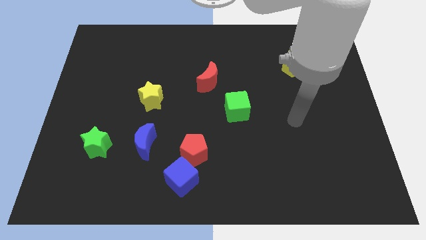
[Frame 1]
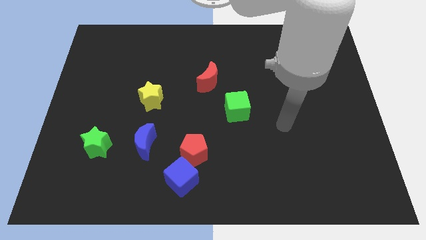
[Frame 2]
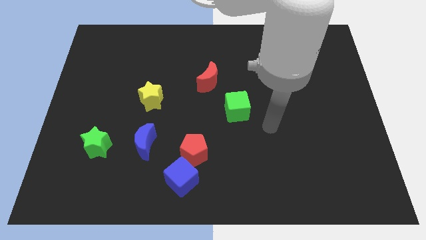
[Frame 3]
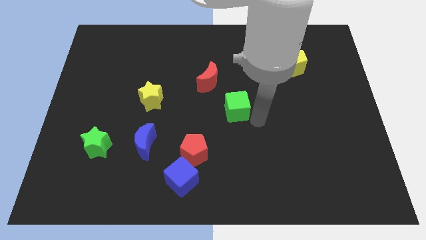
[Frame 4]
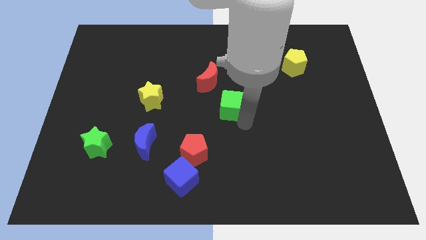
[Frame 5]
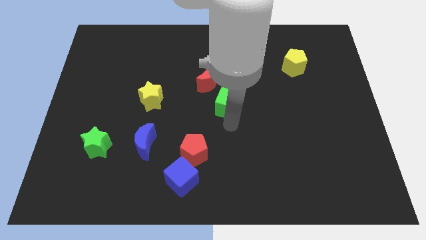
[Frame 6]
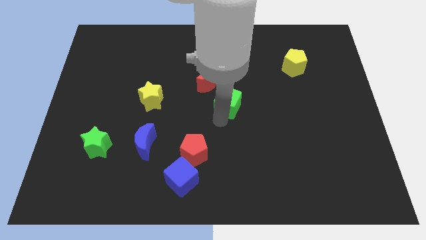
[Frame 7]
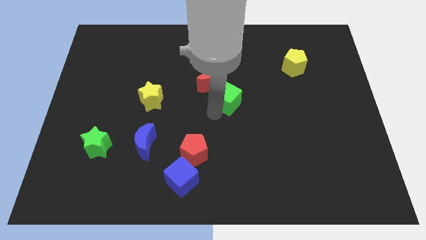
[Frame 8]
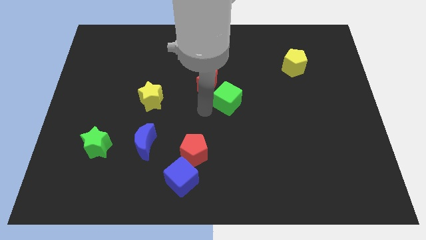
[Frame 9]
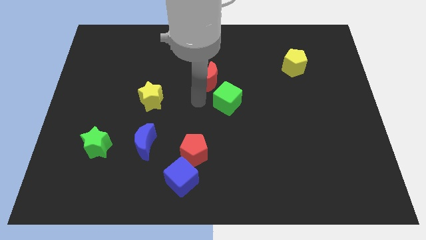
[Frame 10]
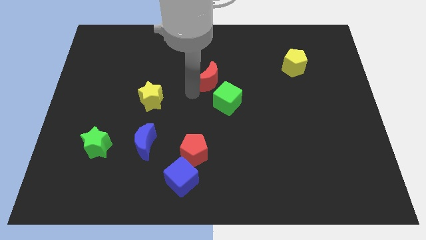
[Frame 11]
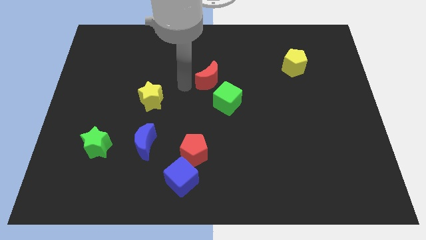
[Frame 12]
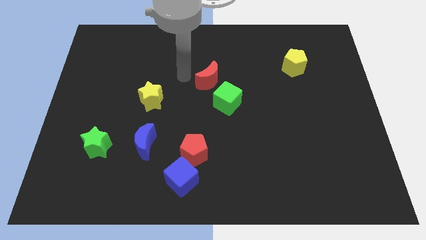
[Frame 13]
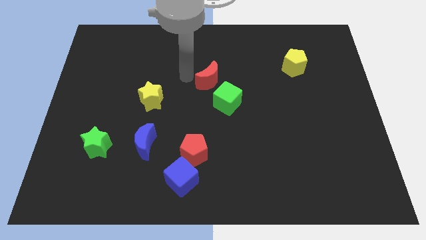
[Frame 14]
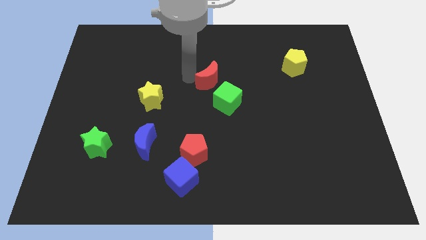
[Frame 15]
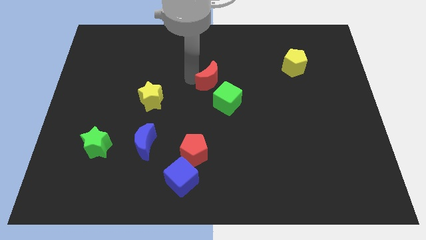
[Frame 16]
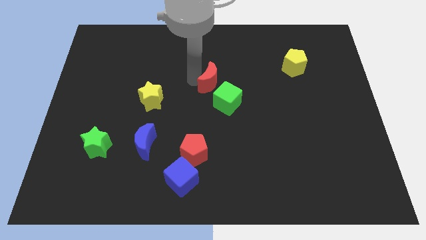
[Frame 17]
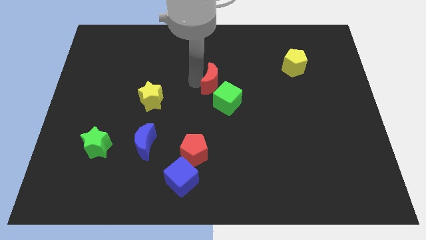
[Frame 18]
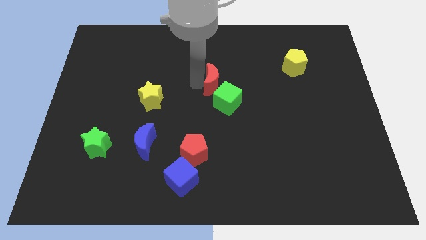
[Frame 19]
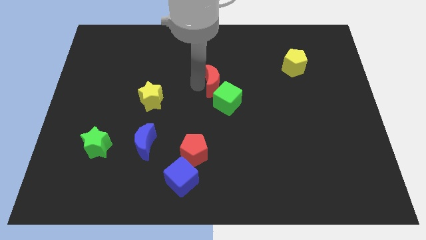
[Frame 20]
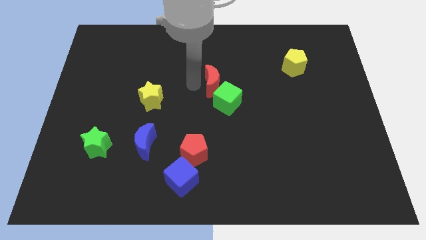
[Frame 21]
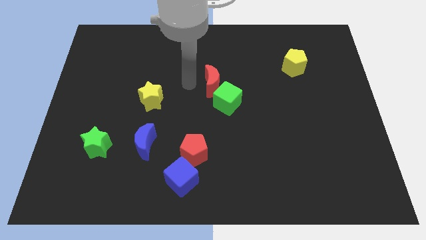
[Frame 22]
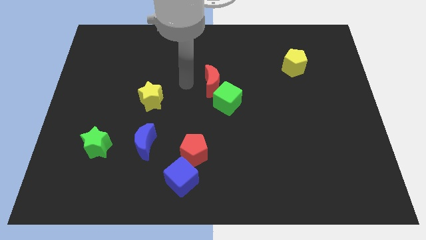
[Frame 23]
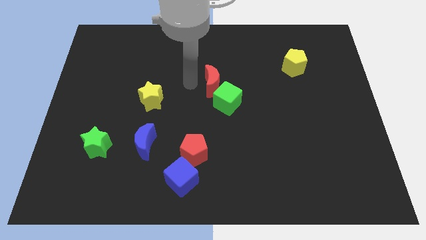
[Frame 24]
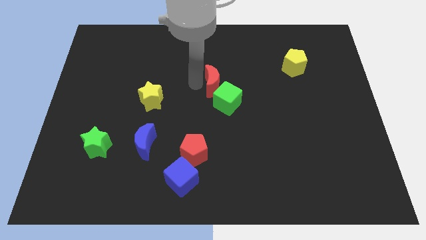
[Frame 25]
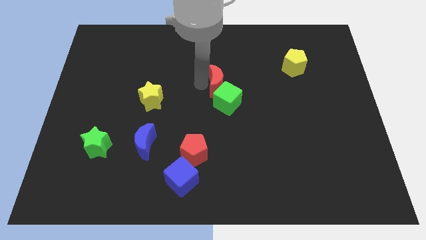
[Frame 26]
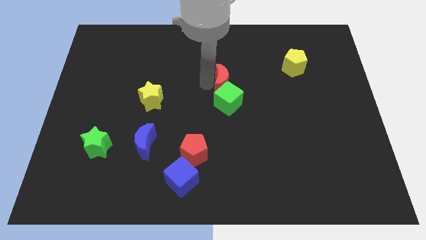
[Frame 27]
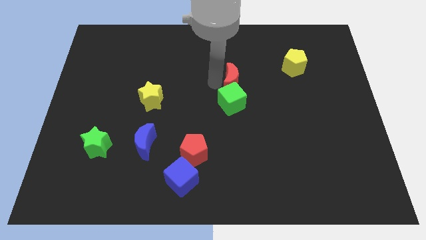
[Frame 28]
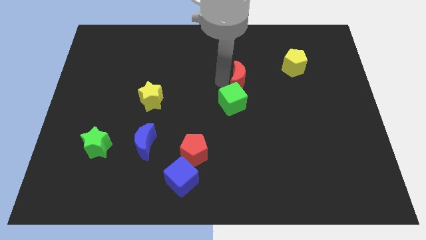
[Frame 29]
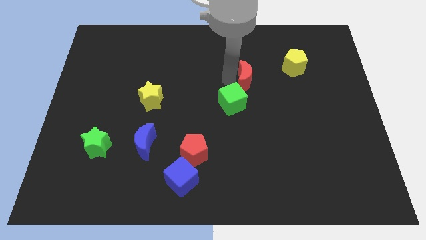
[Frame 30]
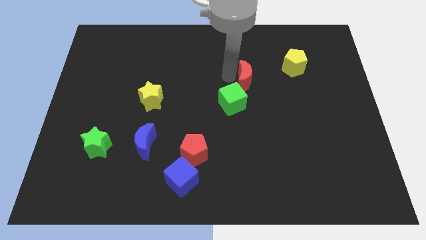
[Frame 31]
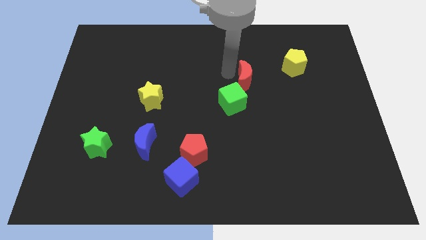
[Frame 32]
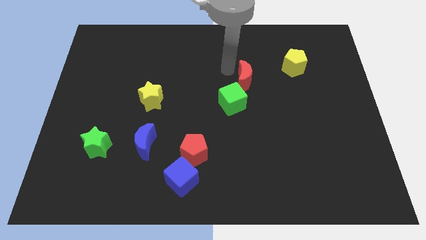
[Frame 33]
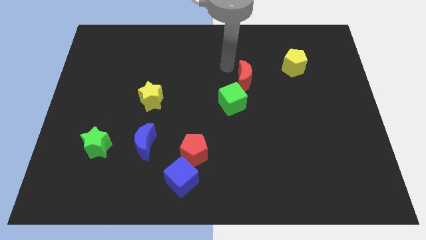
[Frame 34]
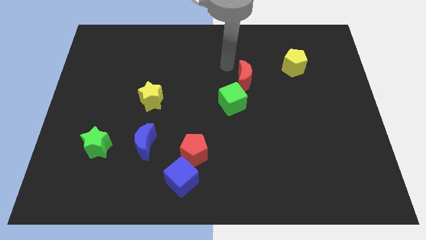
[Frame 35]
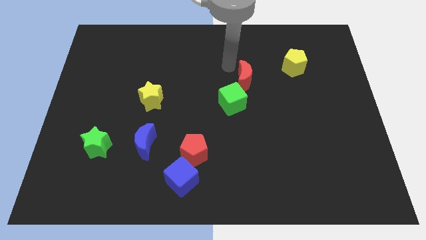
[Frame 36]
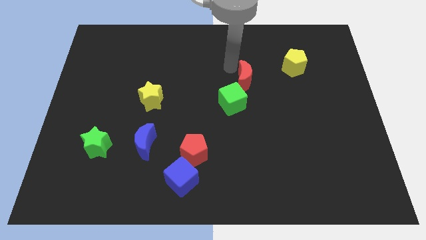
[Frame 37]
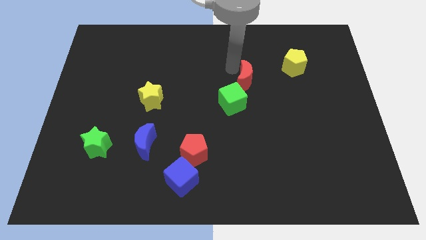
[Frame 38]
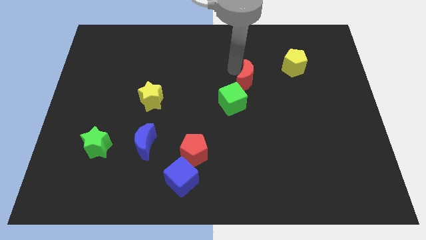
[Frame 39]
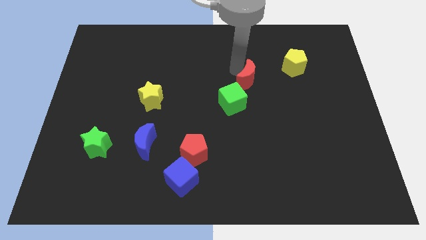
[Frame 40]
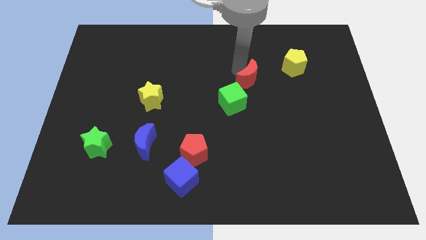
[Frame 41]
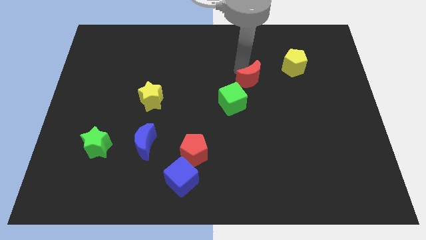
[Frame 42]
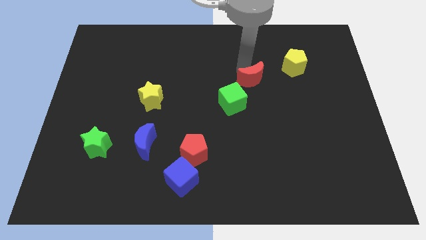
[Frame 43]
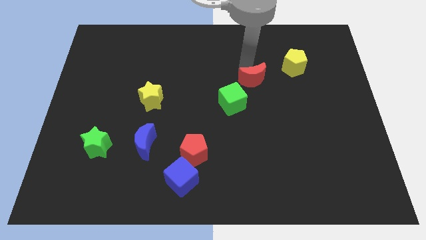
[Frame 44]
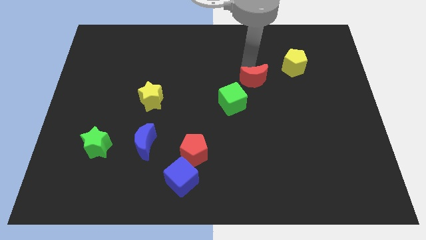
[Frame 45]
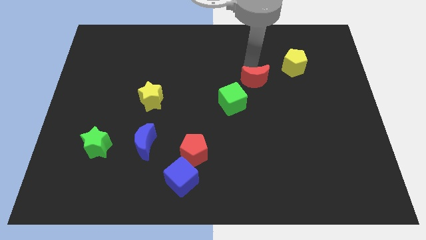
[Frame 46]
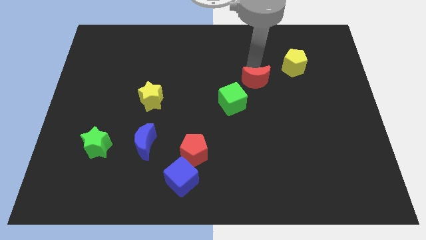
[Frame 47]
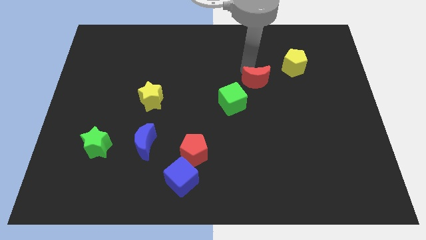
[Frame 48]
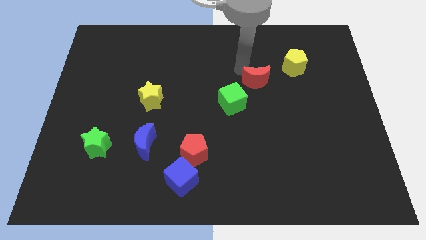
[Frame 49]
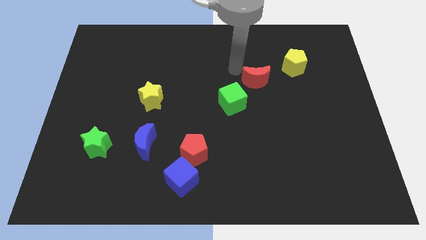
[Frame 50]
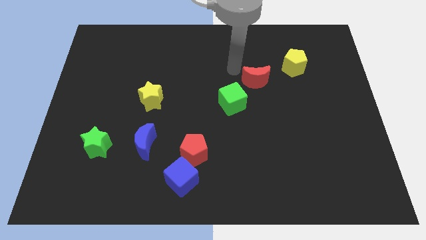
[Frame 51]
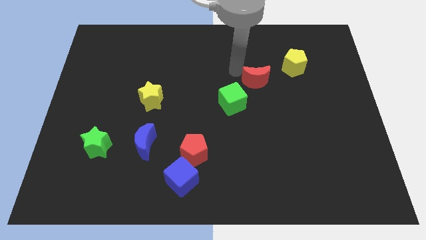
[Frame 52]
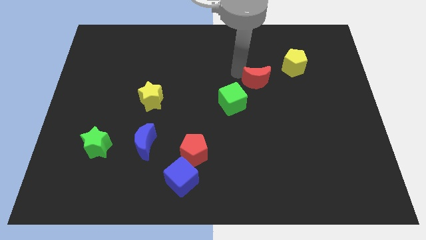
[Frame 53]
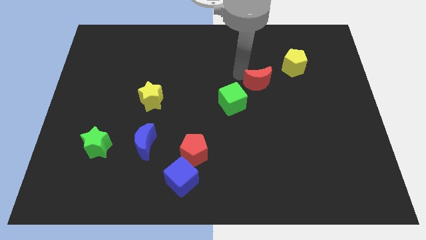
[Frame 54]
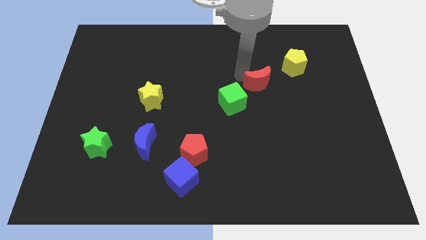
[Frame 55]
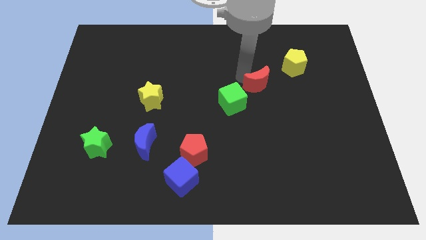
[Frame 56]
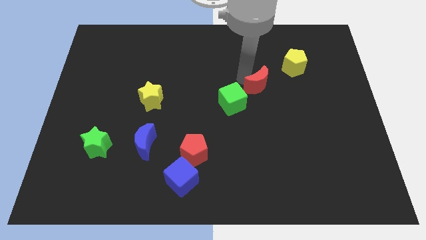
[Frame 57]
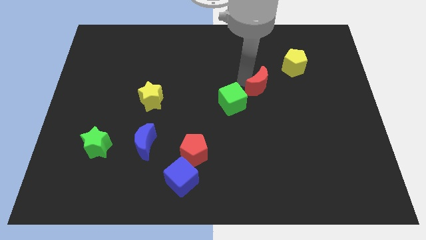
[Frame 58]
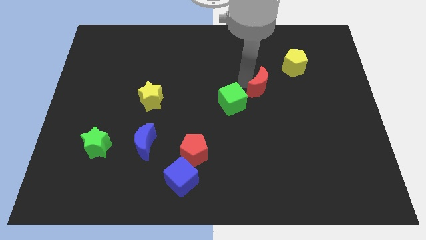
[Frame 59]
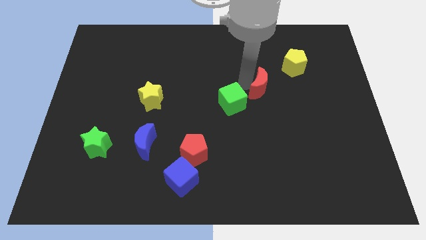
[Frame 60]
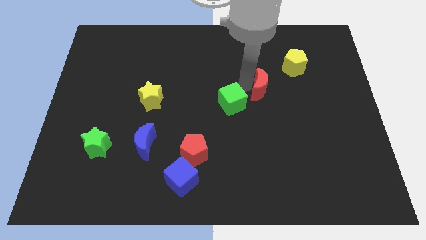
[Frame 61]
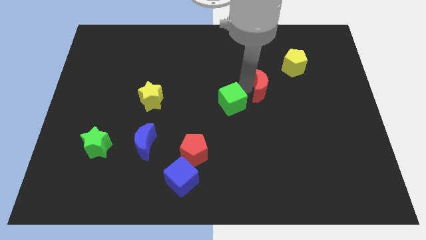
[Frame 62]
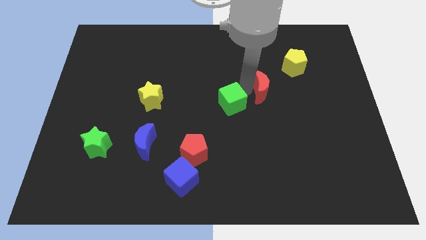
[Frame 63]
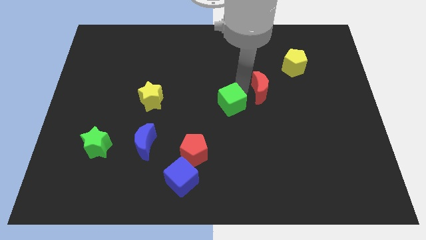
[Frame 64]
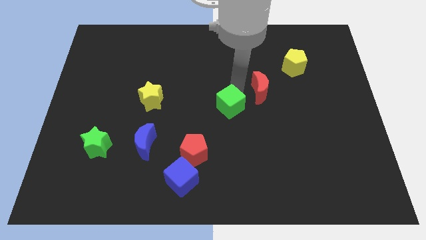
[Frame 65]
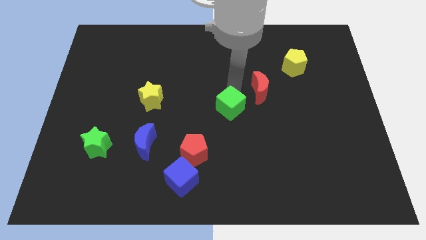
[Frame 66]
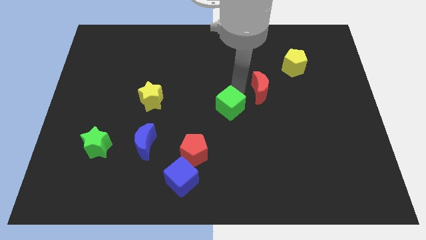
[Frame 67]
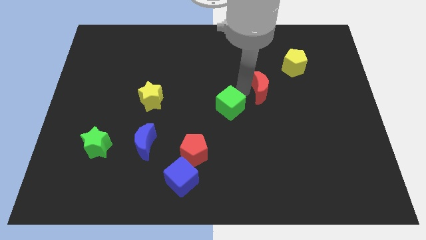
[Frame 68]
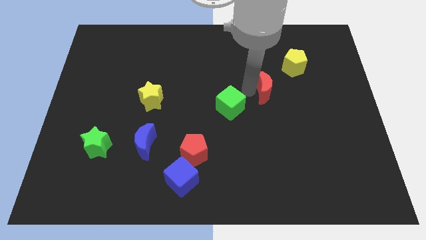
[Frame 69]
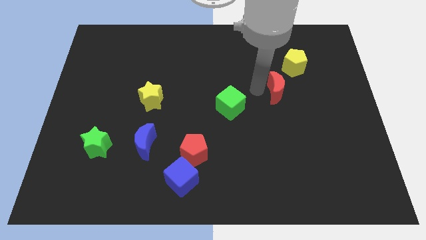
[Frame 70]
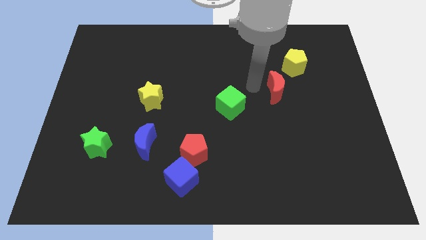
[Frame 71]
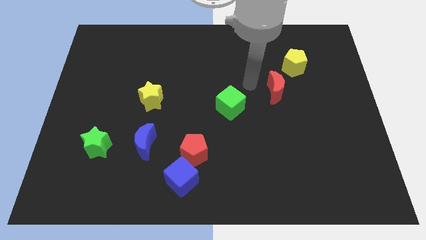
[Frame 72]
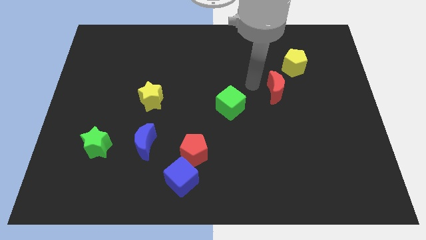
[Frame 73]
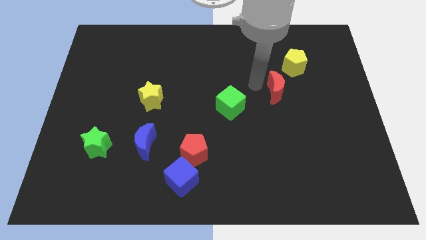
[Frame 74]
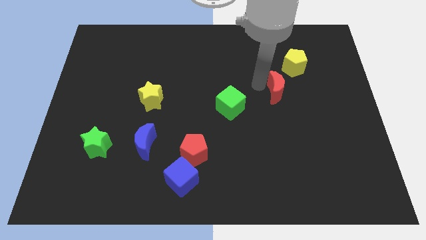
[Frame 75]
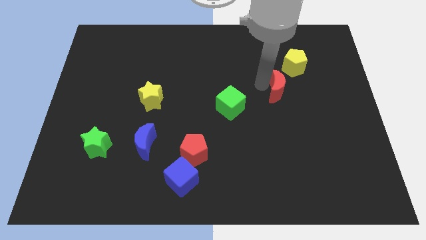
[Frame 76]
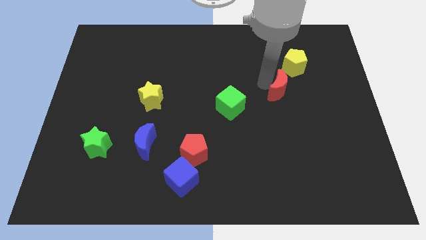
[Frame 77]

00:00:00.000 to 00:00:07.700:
put the red moon to the bottom side of the yellow pentagon
